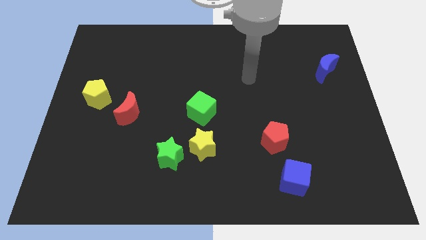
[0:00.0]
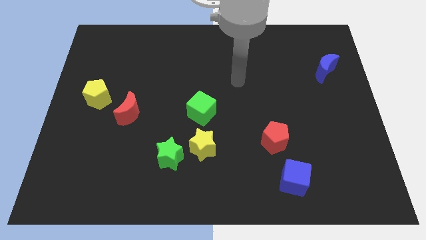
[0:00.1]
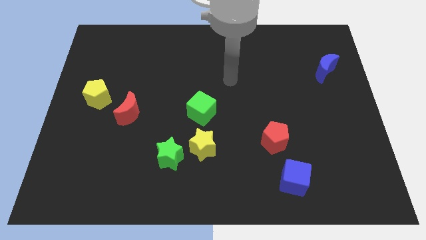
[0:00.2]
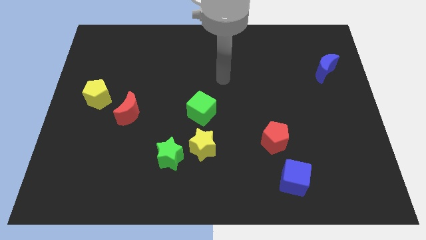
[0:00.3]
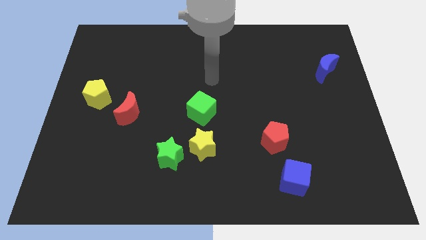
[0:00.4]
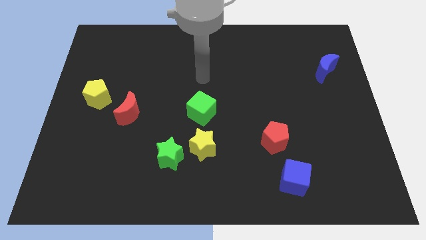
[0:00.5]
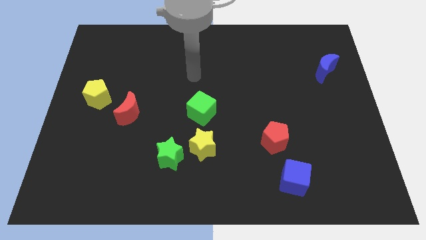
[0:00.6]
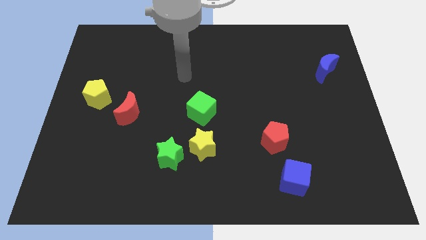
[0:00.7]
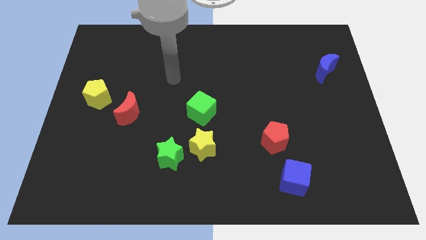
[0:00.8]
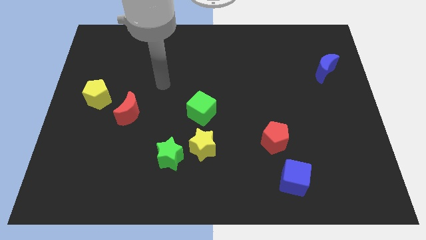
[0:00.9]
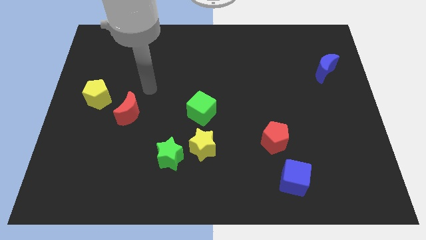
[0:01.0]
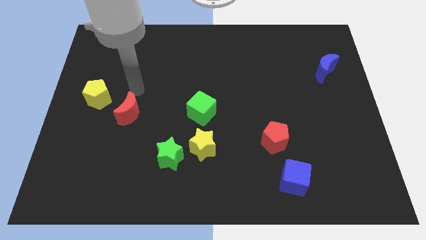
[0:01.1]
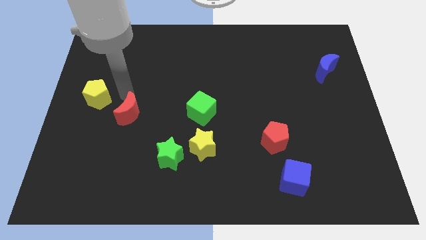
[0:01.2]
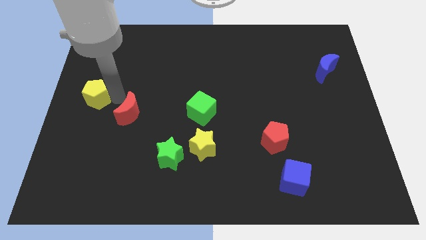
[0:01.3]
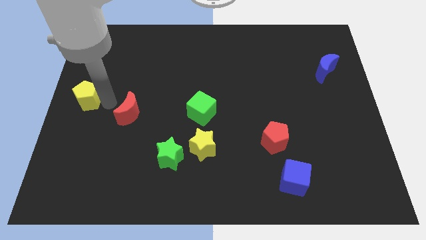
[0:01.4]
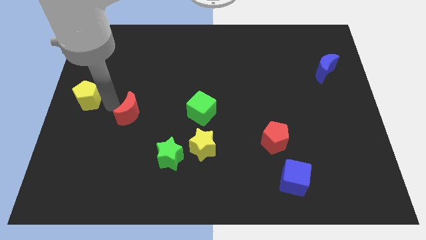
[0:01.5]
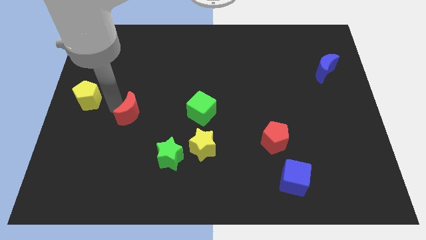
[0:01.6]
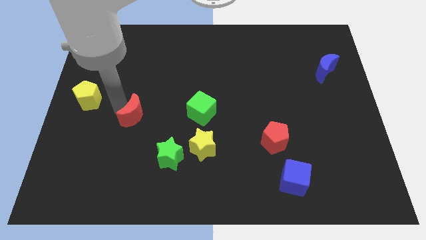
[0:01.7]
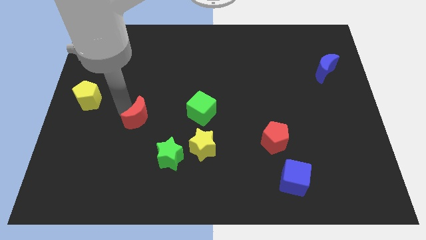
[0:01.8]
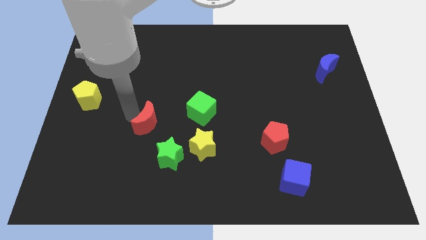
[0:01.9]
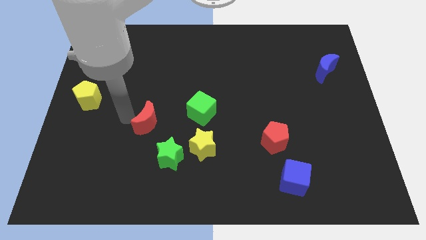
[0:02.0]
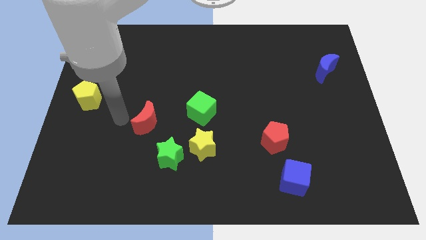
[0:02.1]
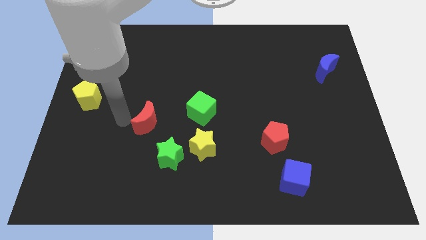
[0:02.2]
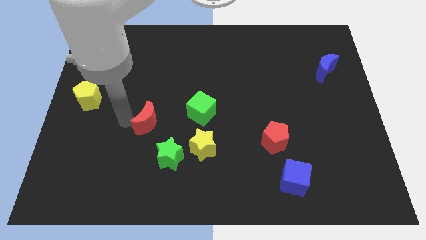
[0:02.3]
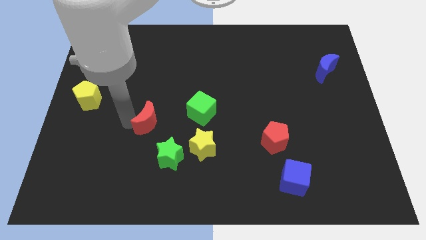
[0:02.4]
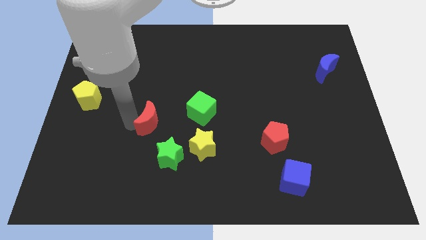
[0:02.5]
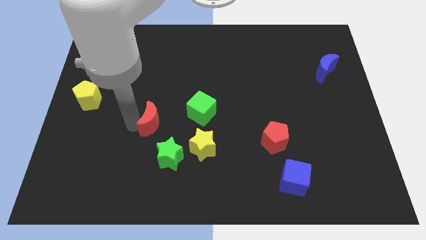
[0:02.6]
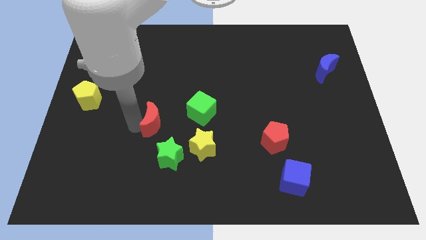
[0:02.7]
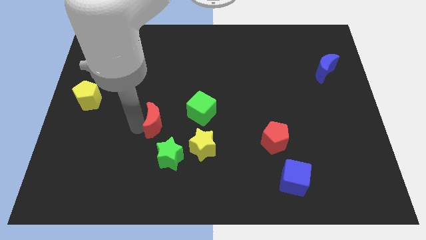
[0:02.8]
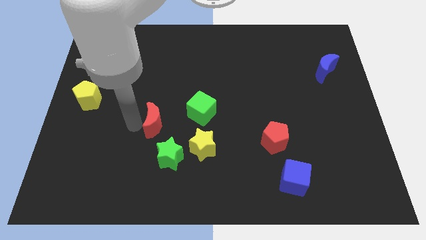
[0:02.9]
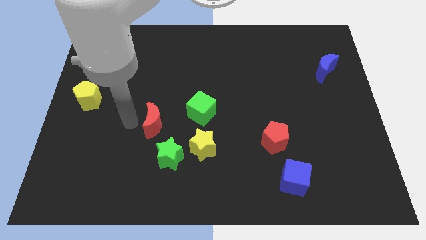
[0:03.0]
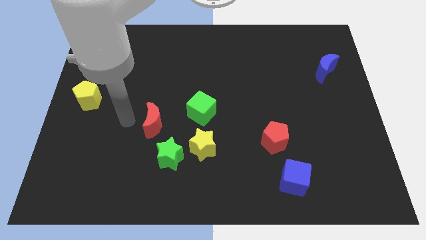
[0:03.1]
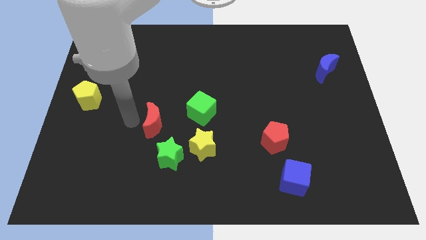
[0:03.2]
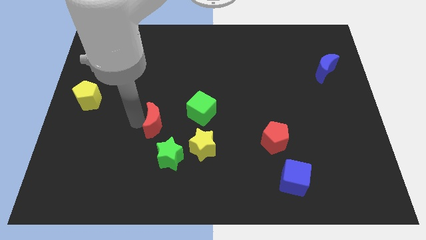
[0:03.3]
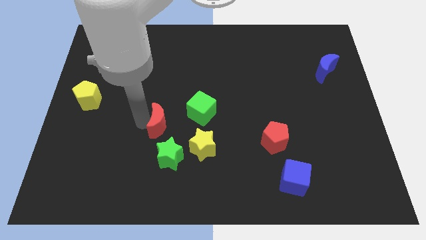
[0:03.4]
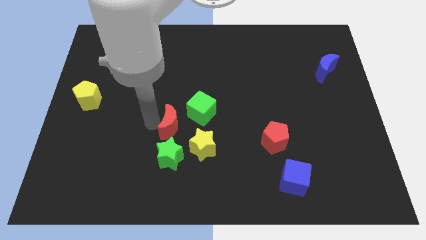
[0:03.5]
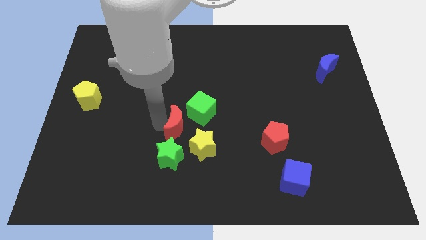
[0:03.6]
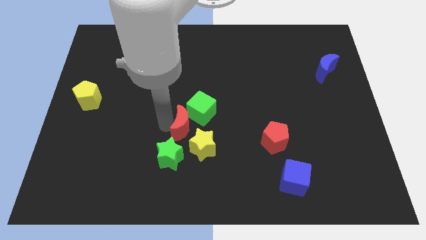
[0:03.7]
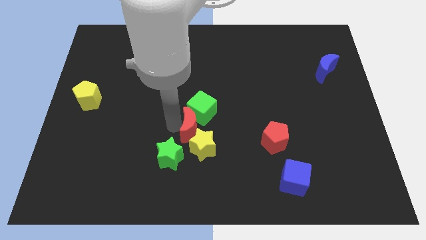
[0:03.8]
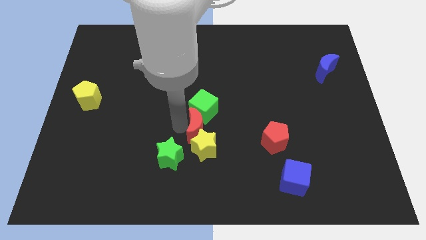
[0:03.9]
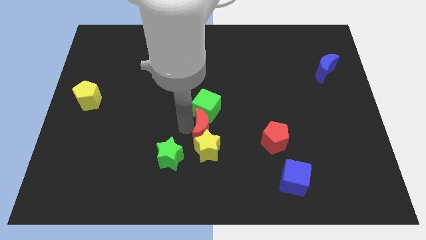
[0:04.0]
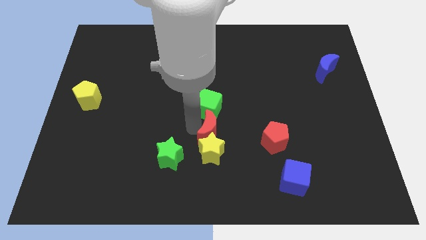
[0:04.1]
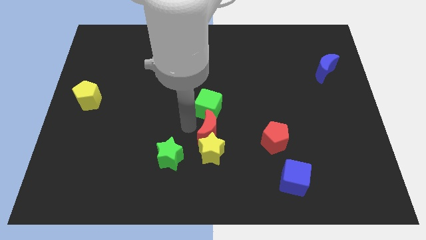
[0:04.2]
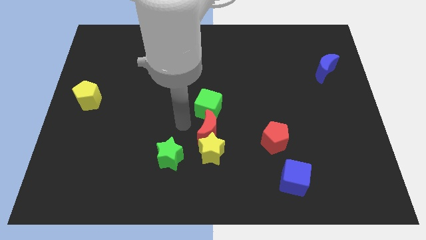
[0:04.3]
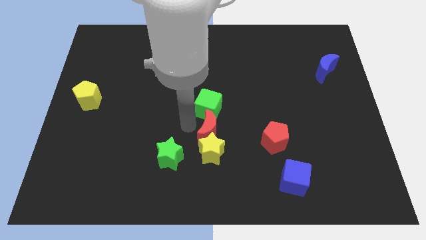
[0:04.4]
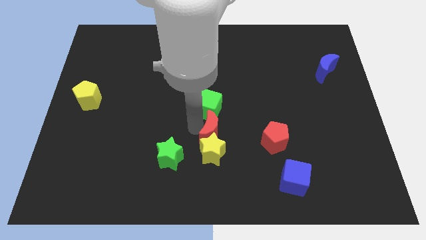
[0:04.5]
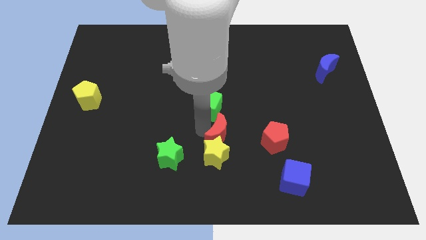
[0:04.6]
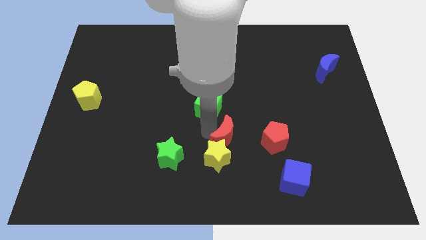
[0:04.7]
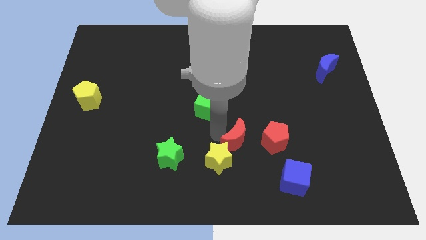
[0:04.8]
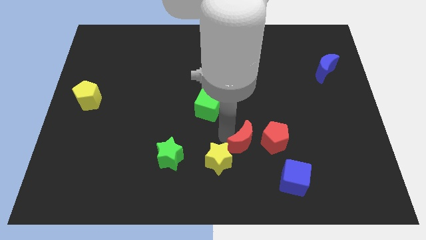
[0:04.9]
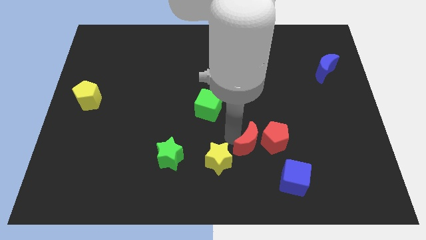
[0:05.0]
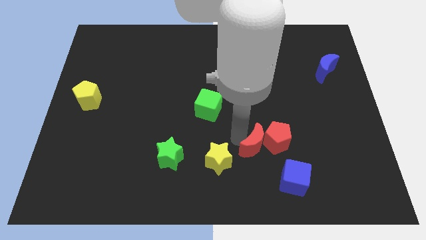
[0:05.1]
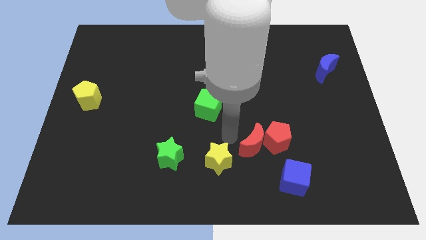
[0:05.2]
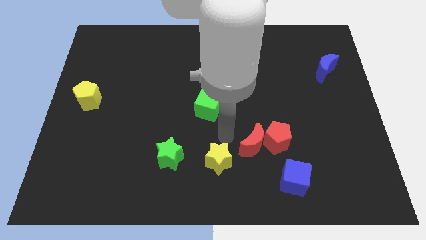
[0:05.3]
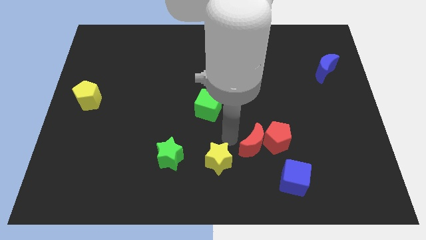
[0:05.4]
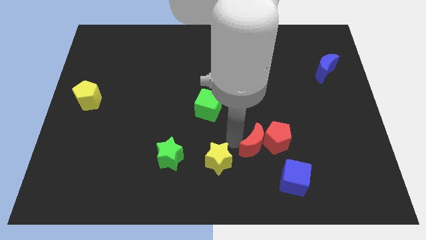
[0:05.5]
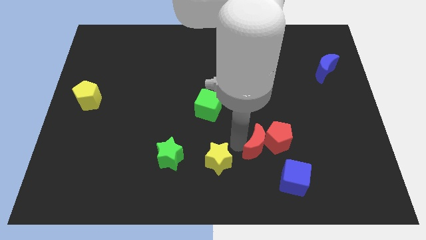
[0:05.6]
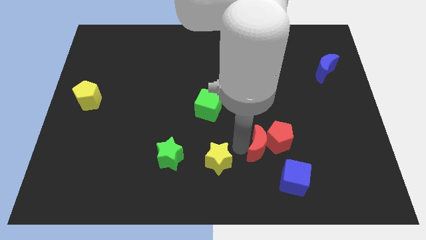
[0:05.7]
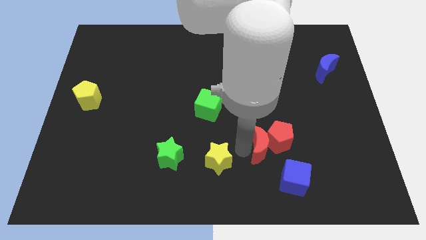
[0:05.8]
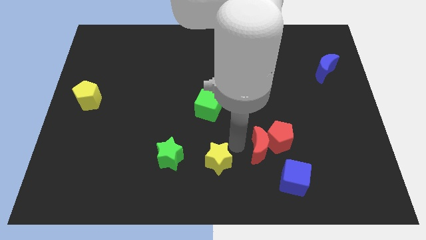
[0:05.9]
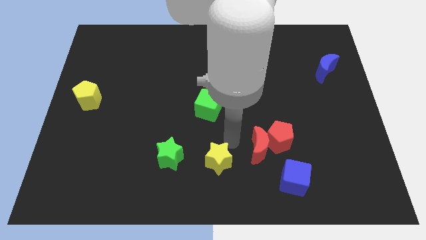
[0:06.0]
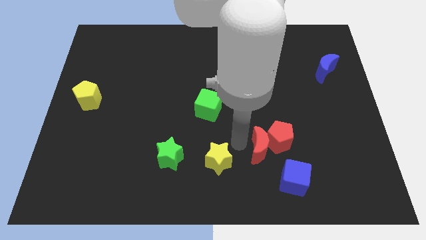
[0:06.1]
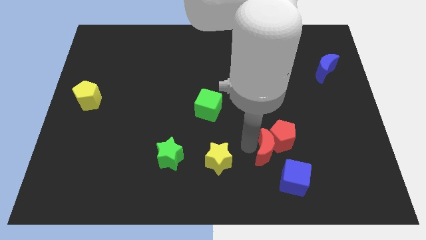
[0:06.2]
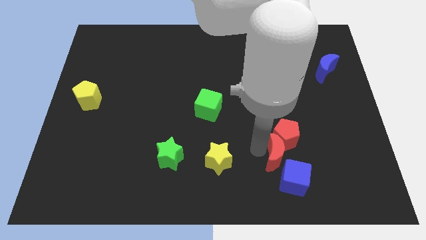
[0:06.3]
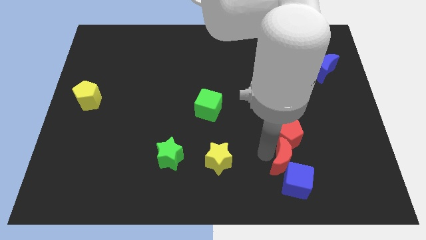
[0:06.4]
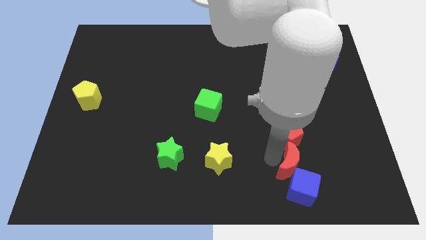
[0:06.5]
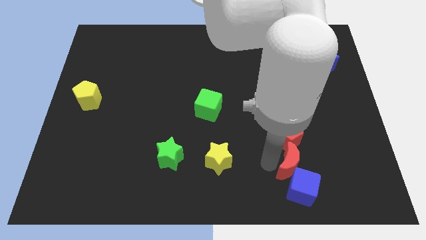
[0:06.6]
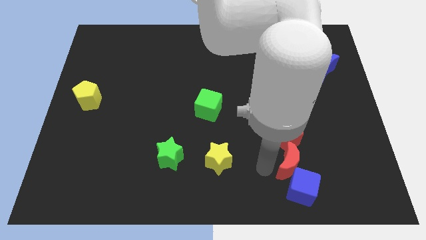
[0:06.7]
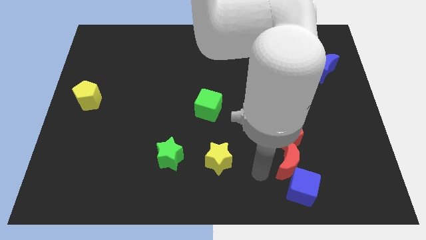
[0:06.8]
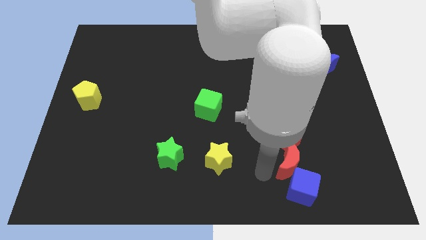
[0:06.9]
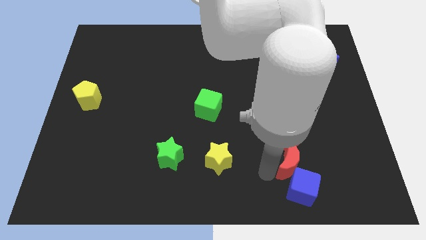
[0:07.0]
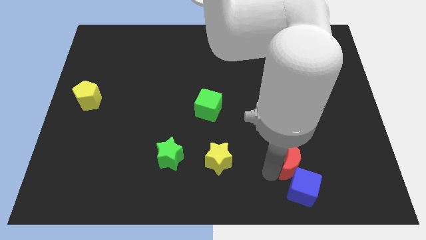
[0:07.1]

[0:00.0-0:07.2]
put the red moon to the bottom right side of the red pentagon

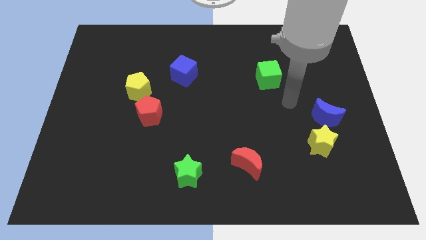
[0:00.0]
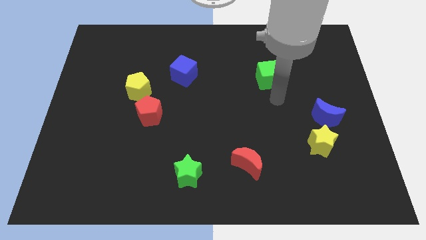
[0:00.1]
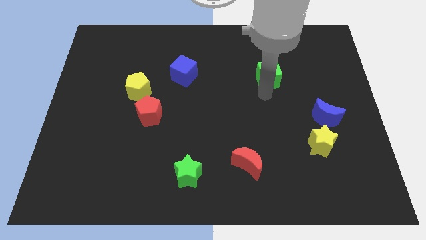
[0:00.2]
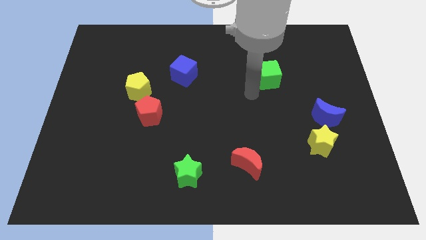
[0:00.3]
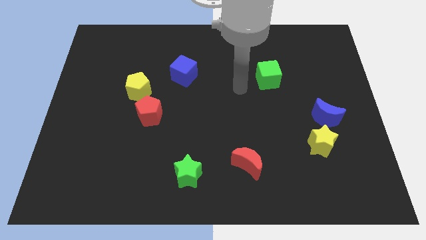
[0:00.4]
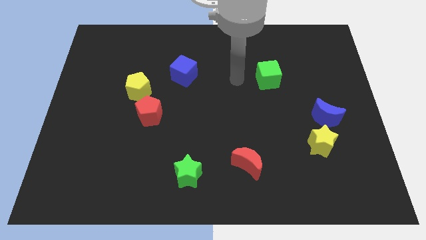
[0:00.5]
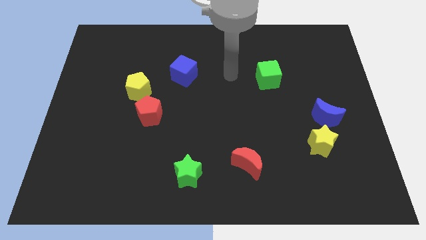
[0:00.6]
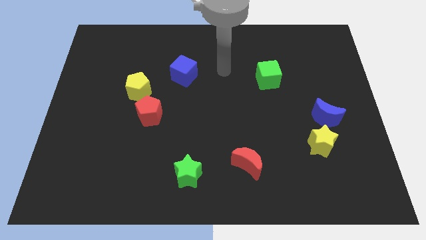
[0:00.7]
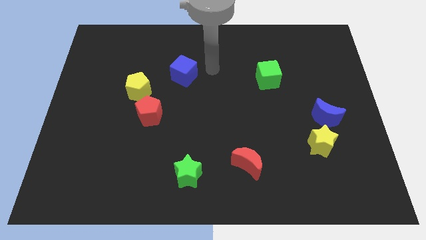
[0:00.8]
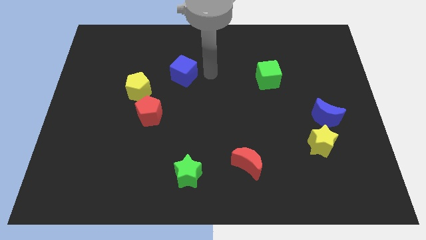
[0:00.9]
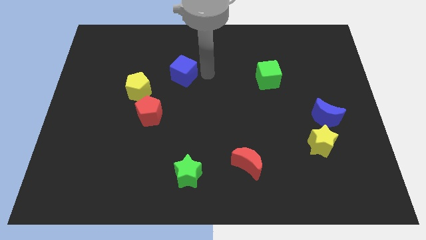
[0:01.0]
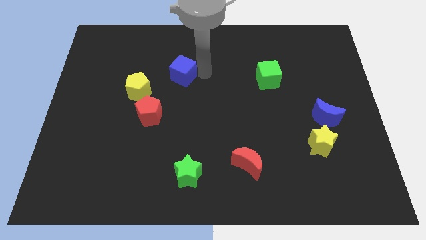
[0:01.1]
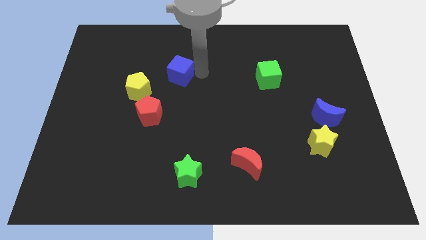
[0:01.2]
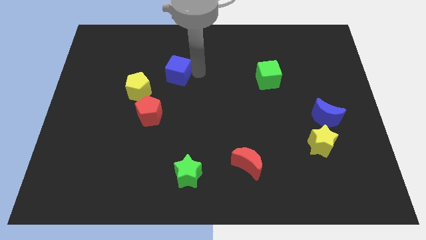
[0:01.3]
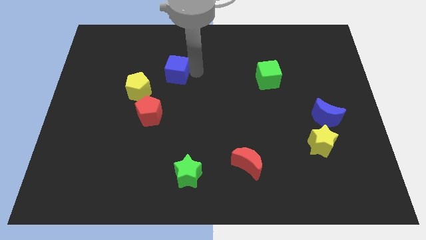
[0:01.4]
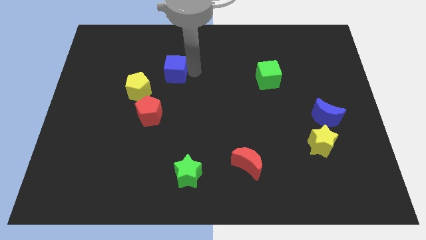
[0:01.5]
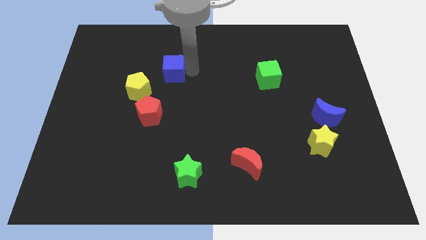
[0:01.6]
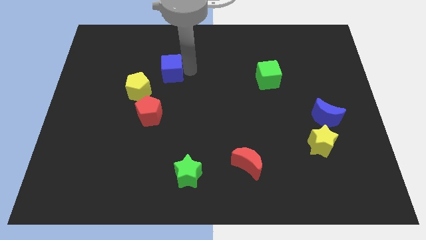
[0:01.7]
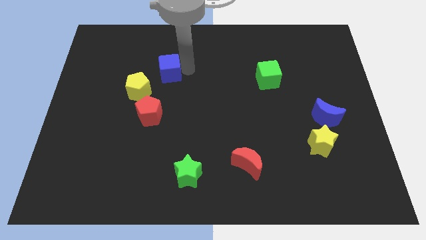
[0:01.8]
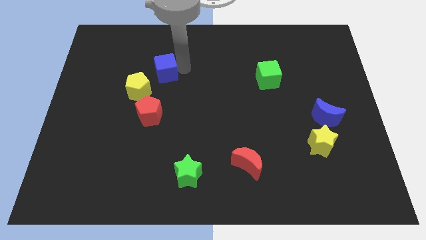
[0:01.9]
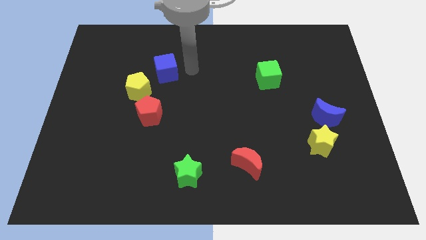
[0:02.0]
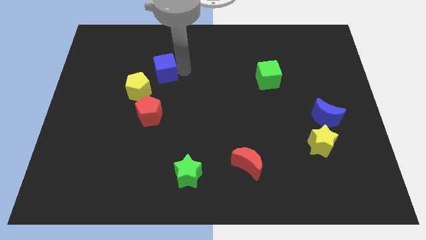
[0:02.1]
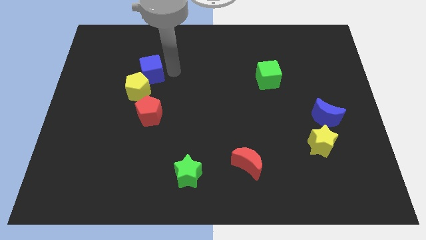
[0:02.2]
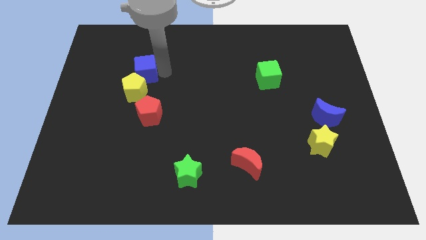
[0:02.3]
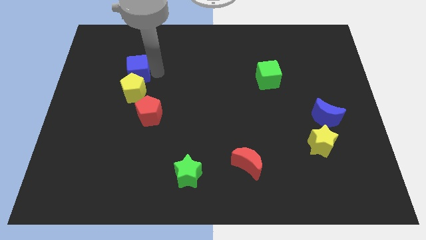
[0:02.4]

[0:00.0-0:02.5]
put the blue cube to the top left of the yellow pentagon
